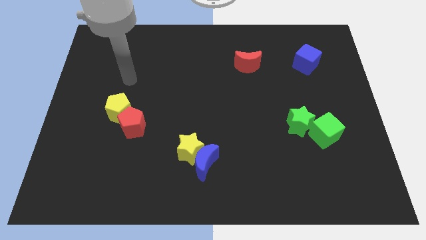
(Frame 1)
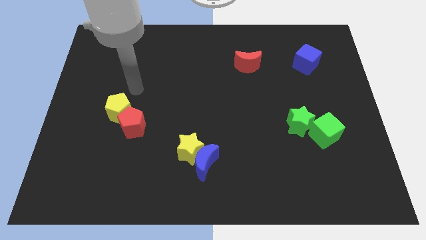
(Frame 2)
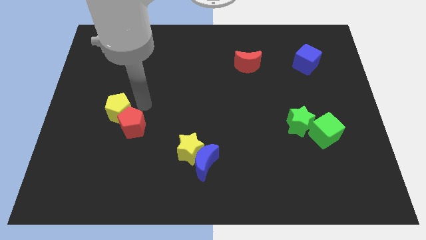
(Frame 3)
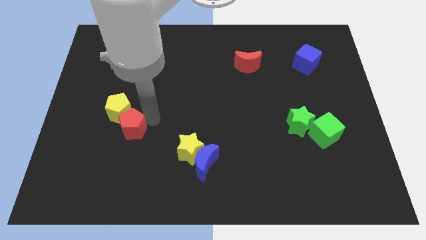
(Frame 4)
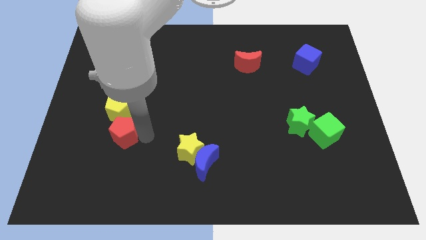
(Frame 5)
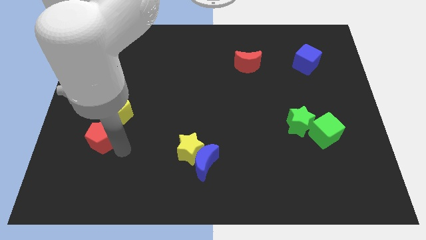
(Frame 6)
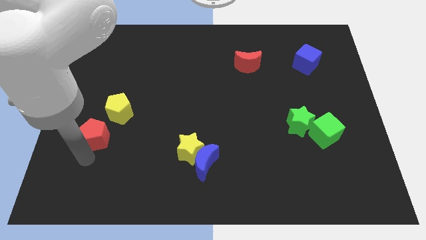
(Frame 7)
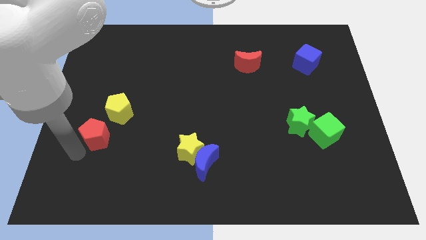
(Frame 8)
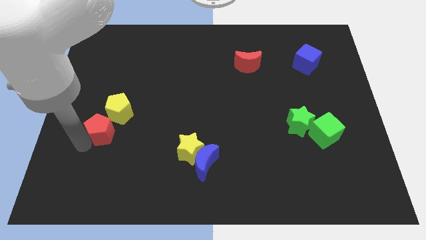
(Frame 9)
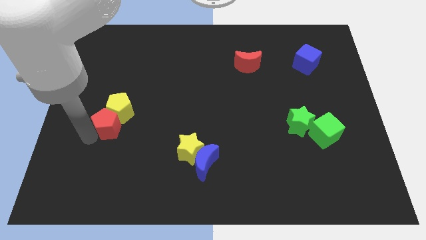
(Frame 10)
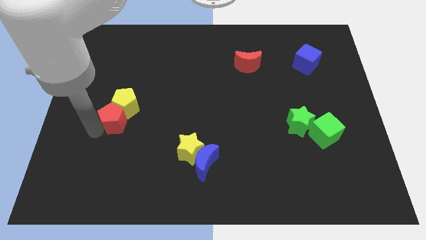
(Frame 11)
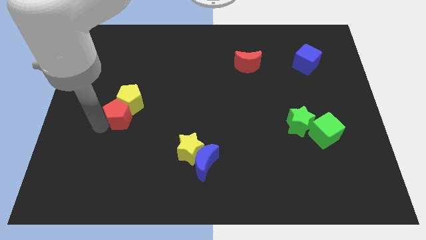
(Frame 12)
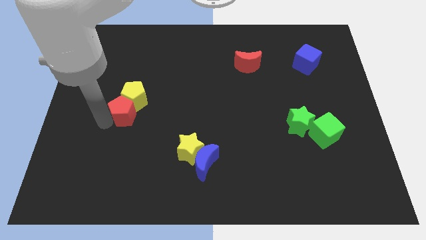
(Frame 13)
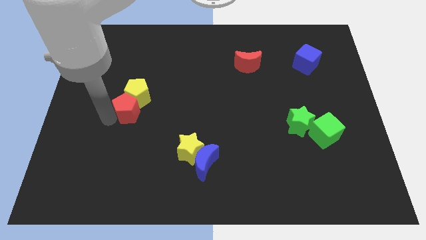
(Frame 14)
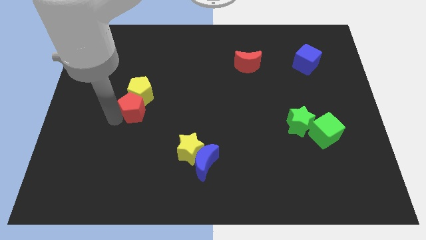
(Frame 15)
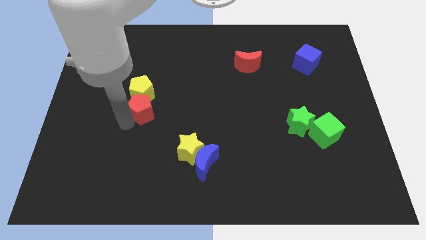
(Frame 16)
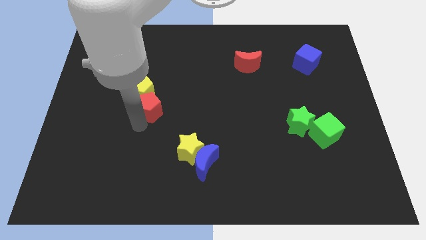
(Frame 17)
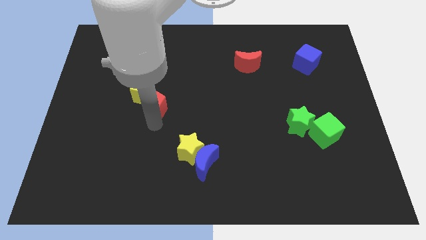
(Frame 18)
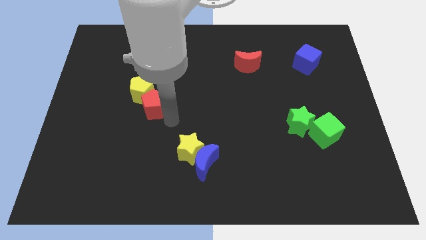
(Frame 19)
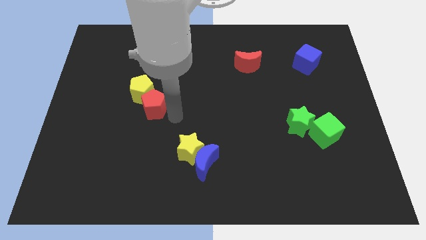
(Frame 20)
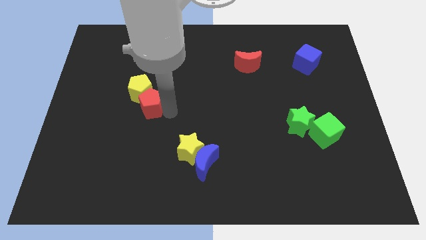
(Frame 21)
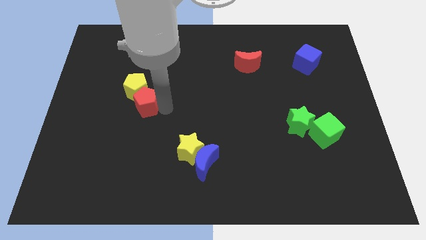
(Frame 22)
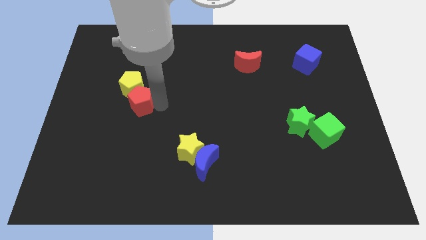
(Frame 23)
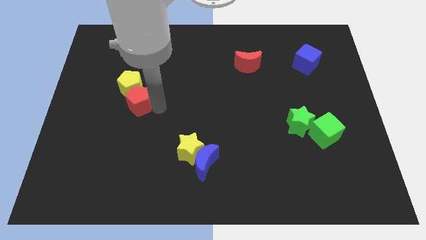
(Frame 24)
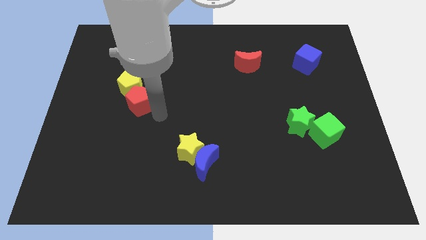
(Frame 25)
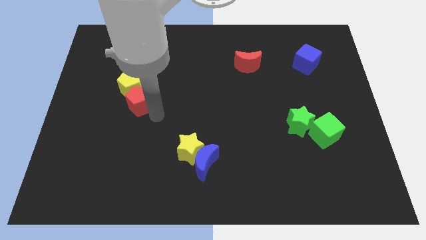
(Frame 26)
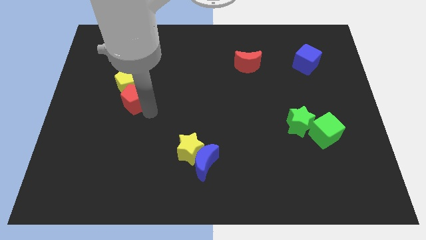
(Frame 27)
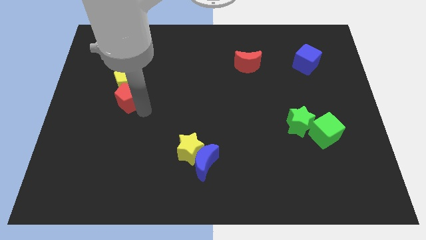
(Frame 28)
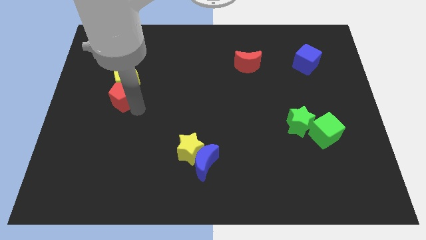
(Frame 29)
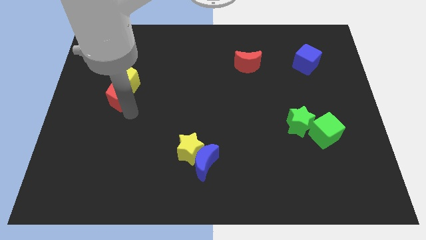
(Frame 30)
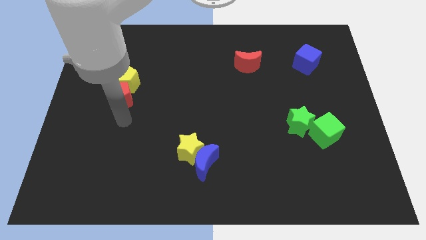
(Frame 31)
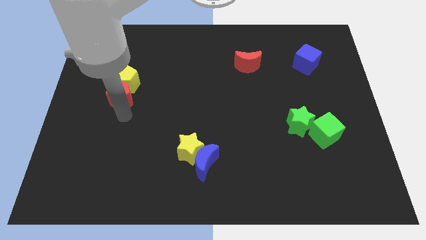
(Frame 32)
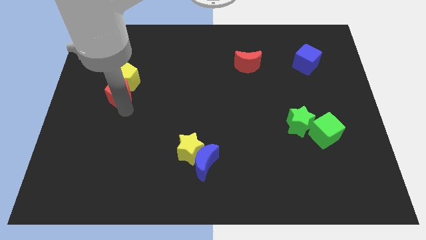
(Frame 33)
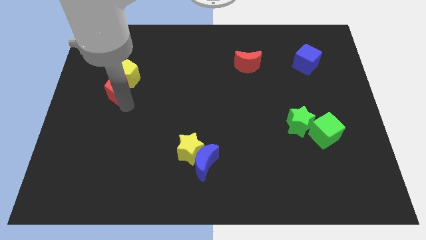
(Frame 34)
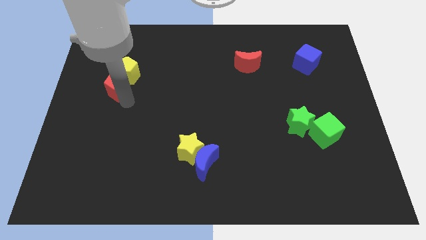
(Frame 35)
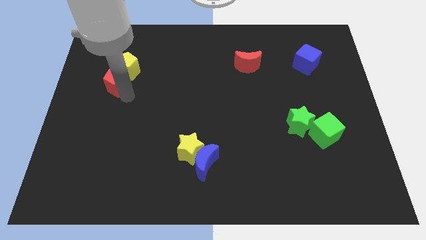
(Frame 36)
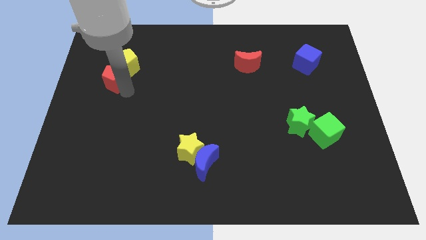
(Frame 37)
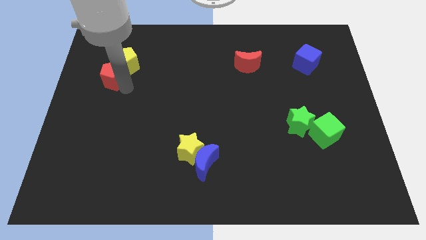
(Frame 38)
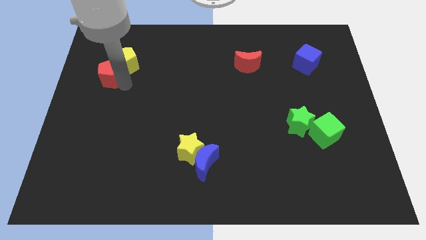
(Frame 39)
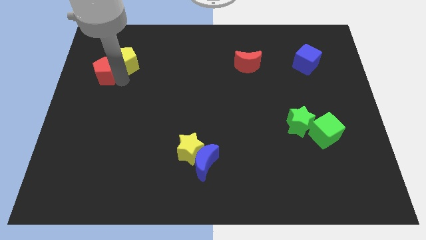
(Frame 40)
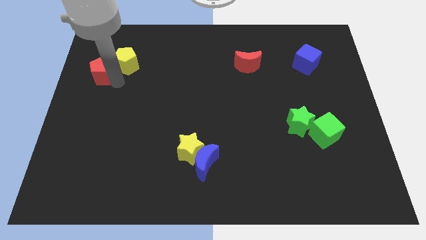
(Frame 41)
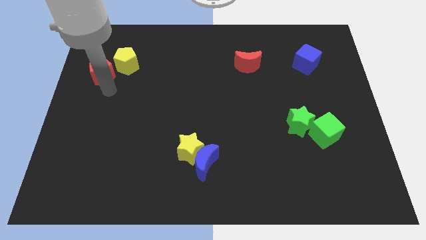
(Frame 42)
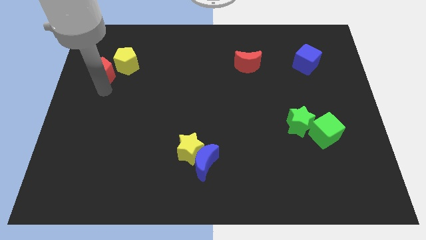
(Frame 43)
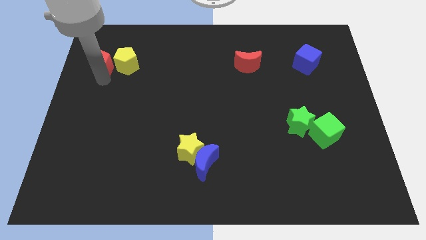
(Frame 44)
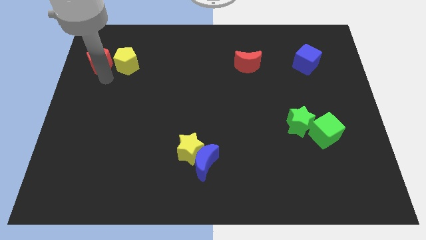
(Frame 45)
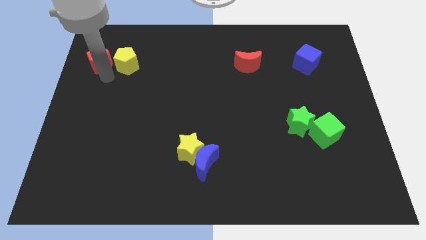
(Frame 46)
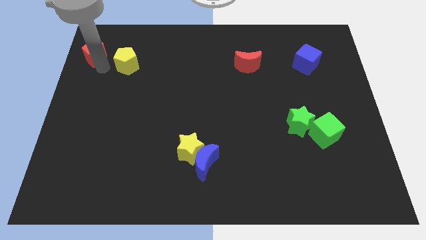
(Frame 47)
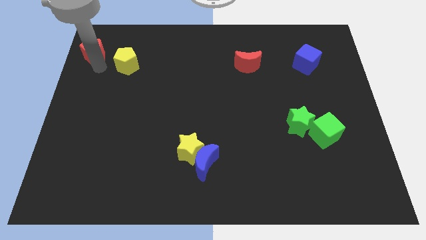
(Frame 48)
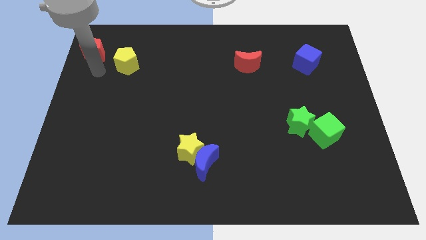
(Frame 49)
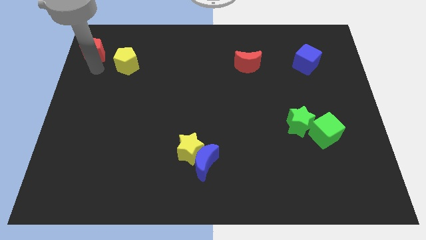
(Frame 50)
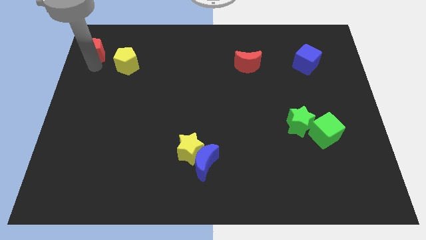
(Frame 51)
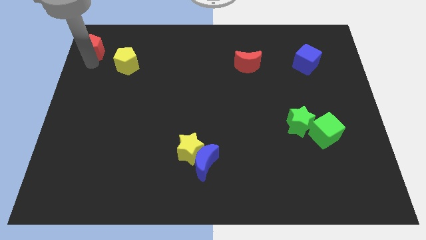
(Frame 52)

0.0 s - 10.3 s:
push the red pentagon to the top left of the board

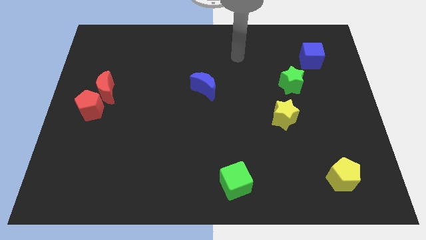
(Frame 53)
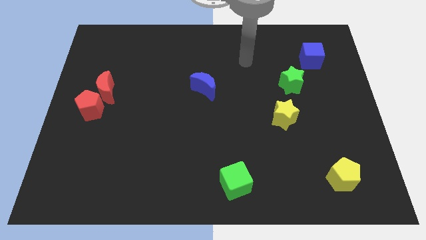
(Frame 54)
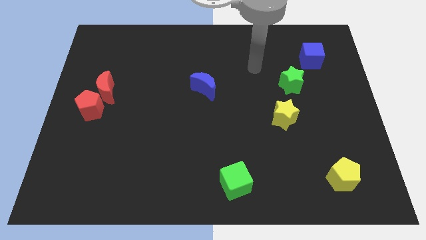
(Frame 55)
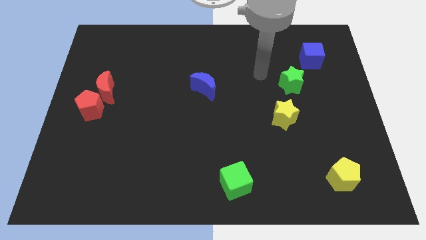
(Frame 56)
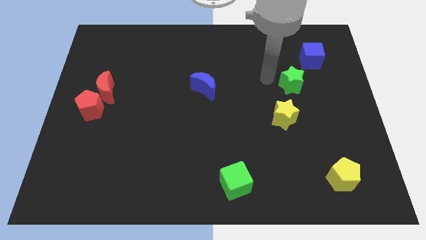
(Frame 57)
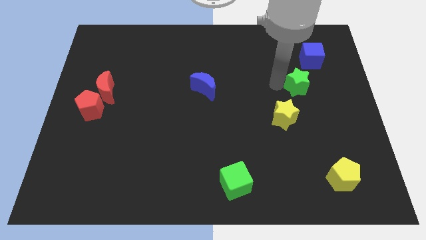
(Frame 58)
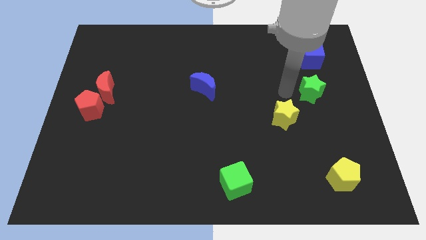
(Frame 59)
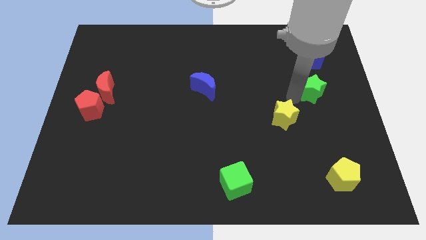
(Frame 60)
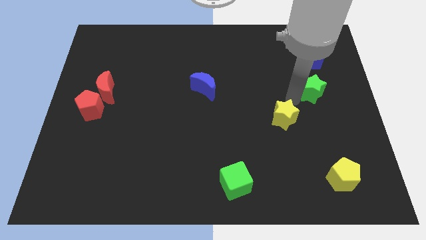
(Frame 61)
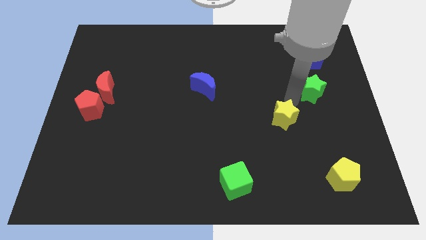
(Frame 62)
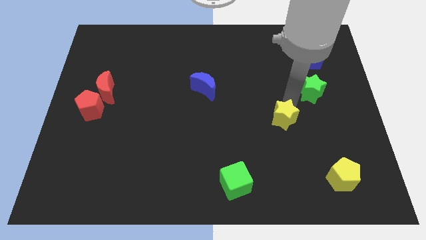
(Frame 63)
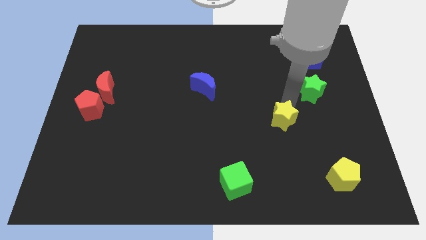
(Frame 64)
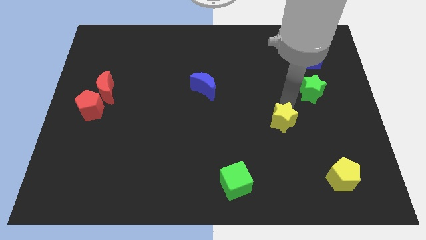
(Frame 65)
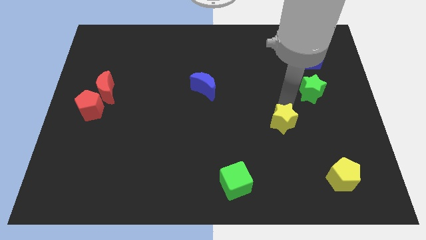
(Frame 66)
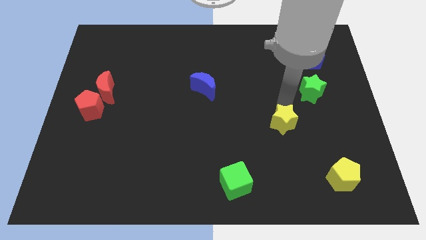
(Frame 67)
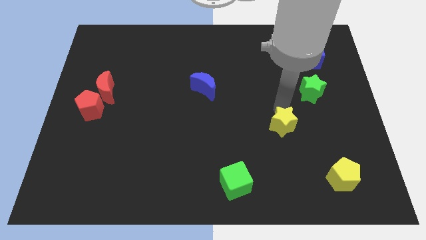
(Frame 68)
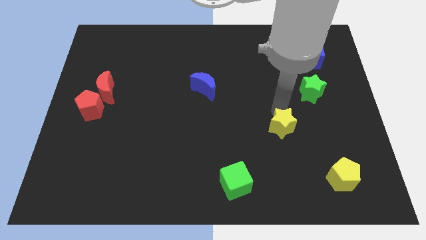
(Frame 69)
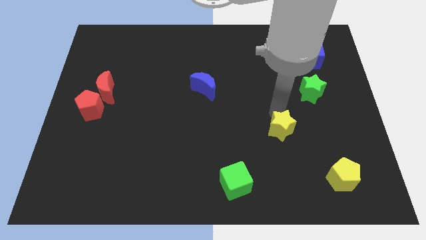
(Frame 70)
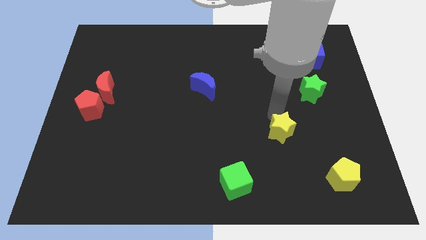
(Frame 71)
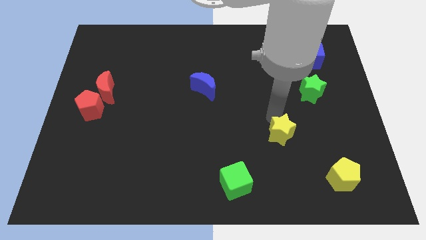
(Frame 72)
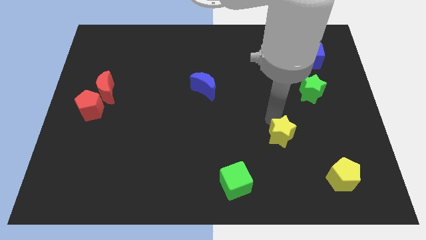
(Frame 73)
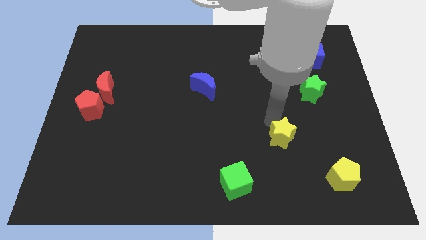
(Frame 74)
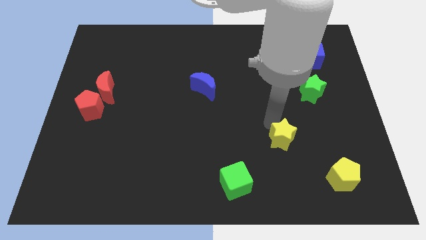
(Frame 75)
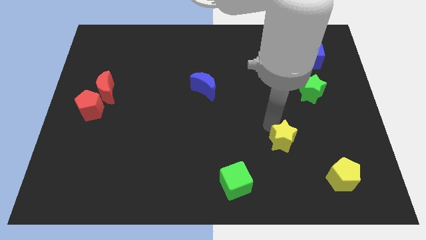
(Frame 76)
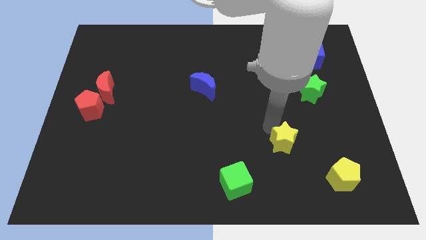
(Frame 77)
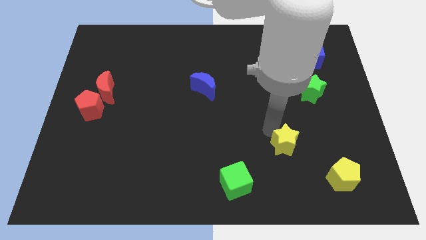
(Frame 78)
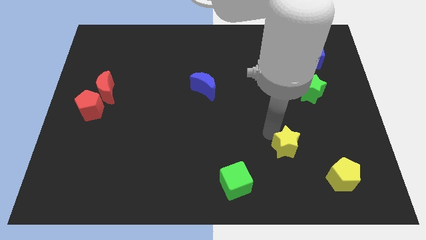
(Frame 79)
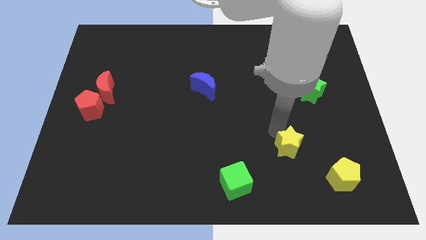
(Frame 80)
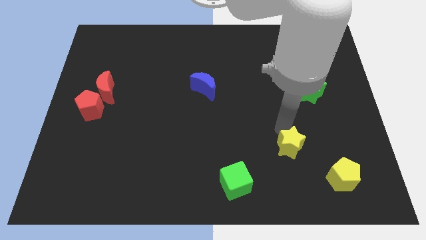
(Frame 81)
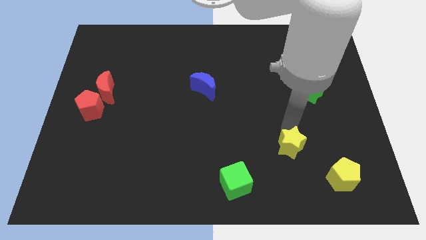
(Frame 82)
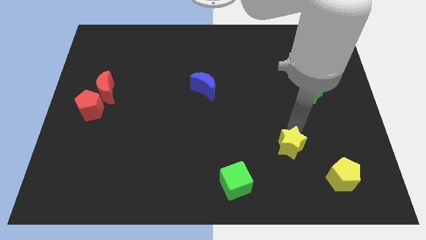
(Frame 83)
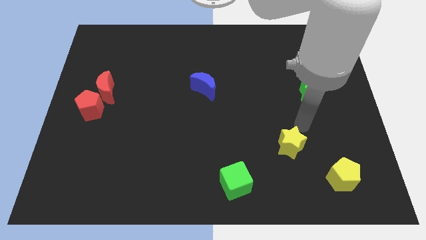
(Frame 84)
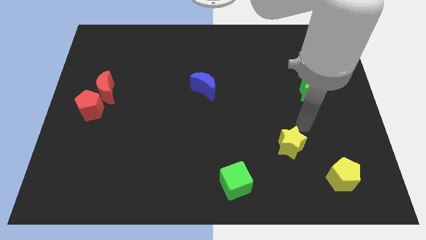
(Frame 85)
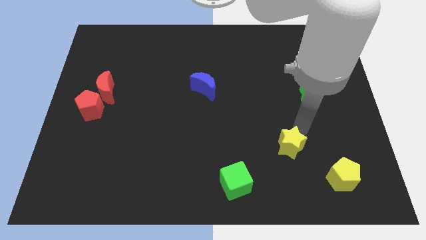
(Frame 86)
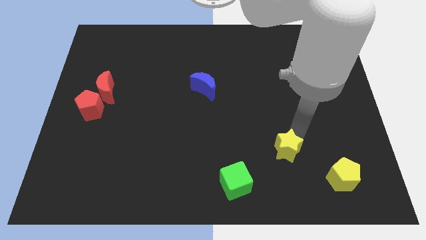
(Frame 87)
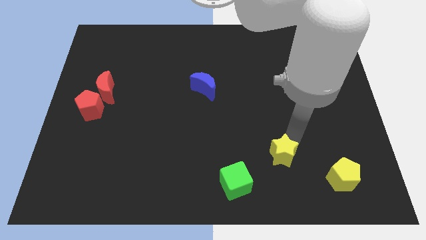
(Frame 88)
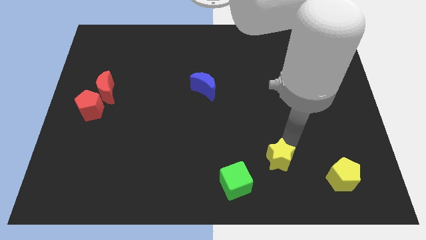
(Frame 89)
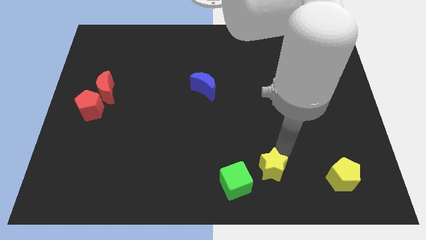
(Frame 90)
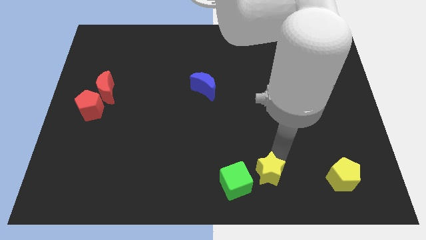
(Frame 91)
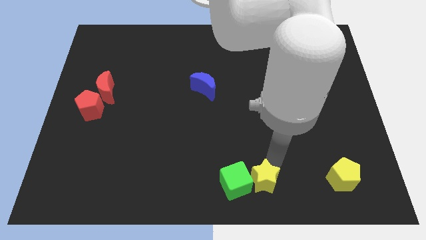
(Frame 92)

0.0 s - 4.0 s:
slide the yellow star to the bottom side
